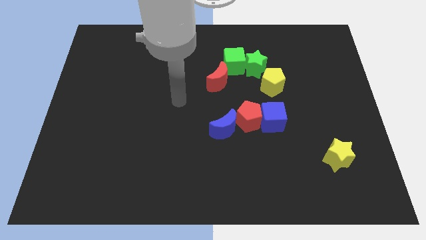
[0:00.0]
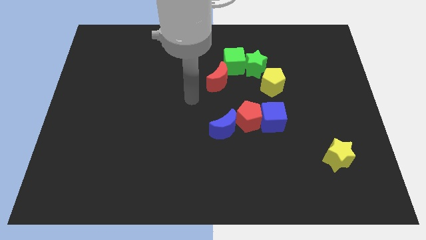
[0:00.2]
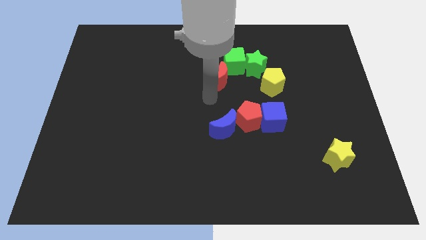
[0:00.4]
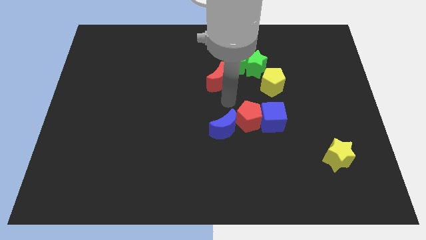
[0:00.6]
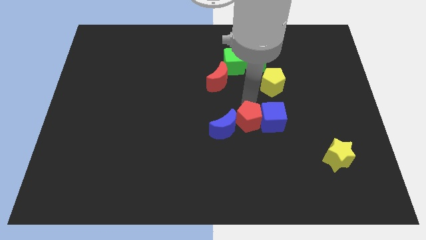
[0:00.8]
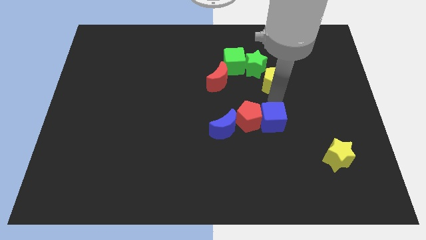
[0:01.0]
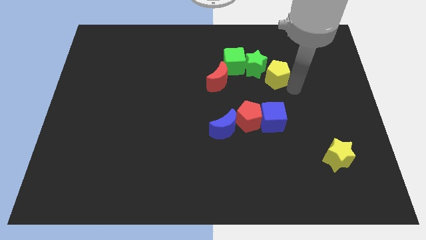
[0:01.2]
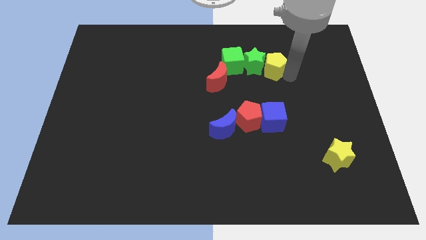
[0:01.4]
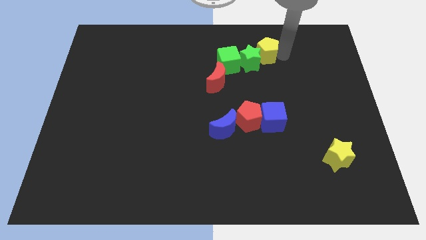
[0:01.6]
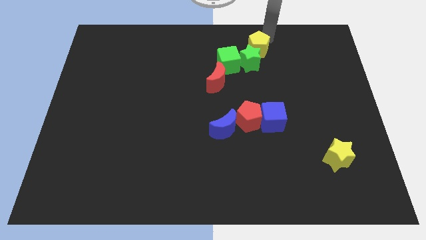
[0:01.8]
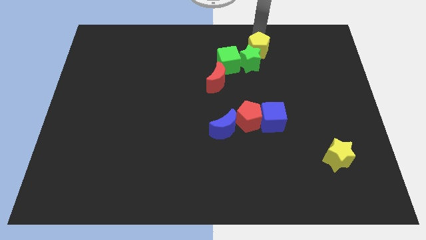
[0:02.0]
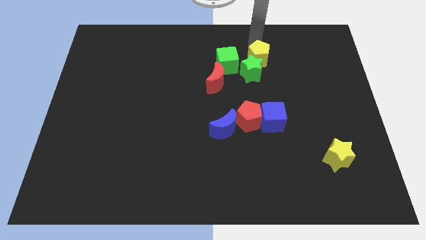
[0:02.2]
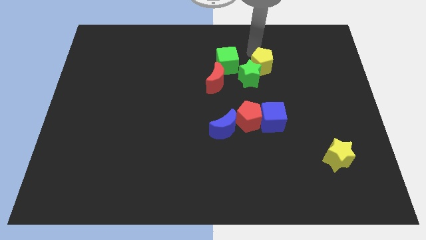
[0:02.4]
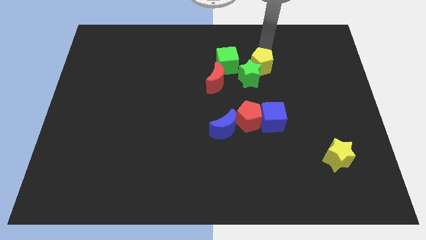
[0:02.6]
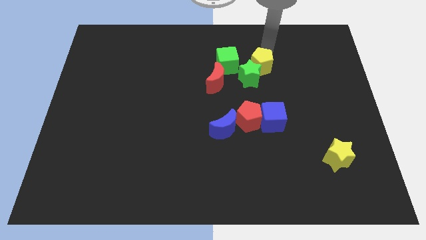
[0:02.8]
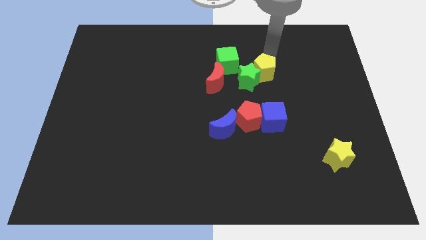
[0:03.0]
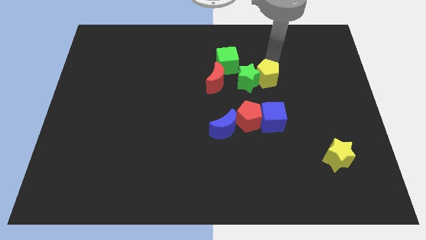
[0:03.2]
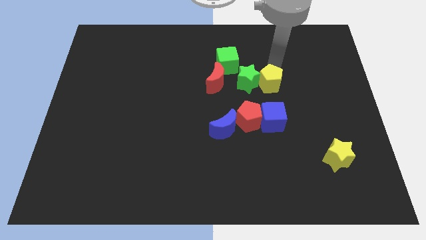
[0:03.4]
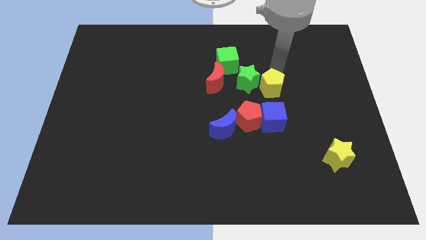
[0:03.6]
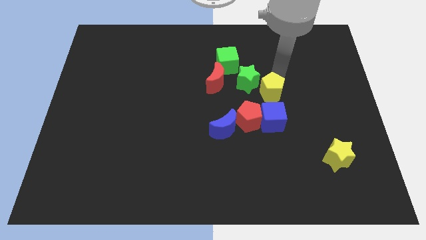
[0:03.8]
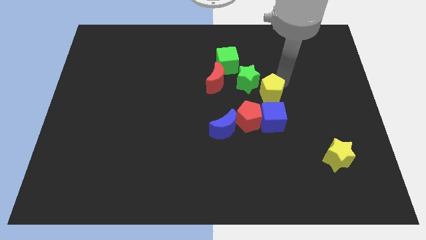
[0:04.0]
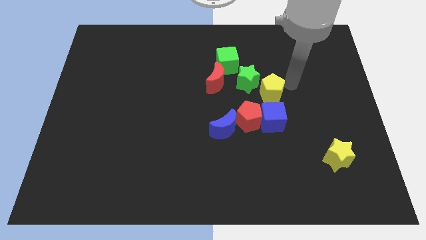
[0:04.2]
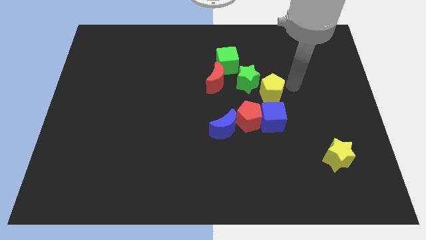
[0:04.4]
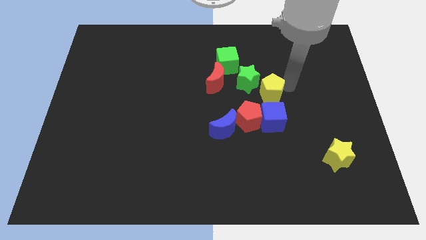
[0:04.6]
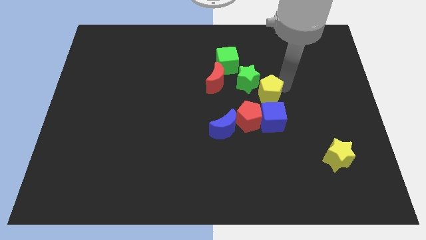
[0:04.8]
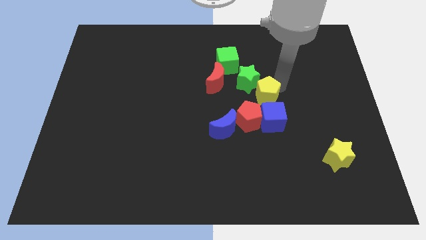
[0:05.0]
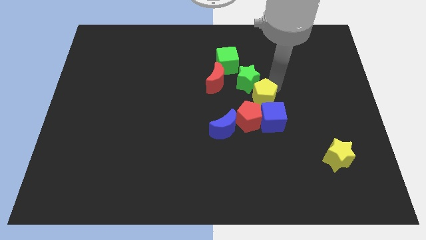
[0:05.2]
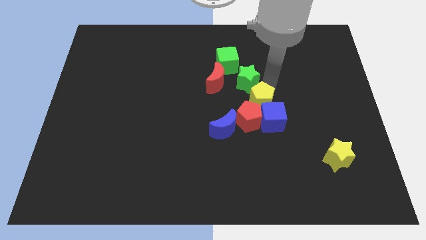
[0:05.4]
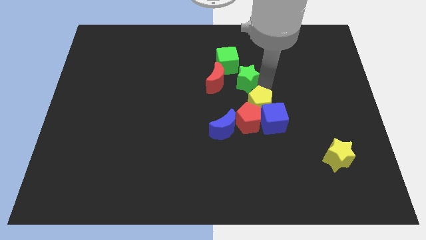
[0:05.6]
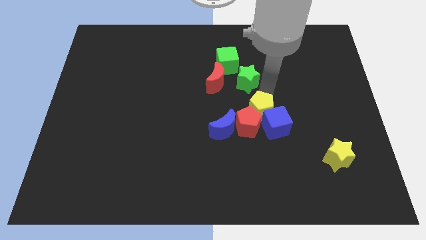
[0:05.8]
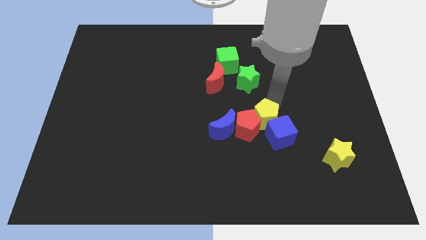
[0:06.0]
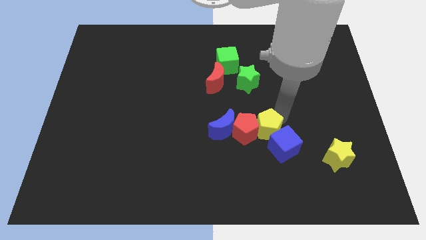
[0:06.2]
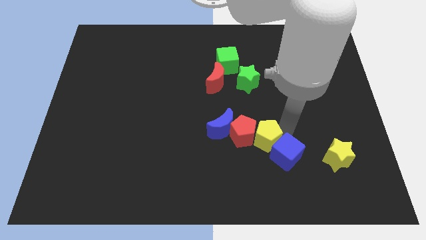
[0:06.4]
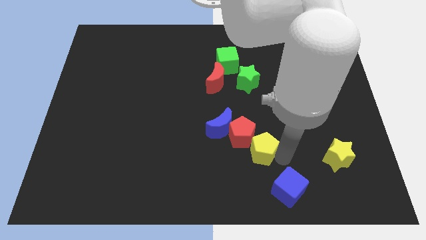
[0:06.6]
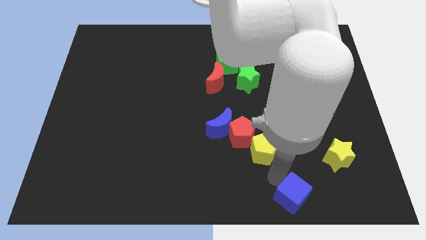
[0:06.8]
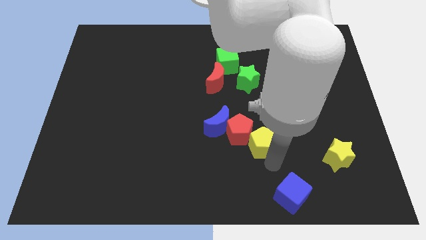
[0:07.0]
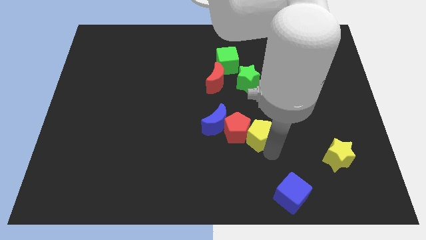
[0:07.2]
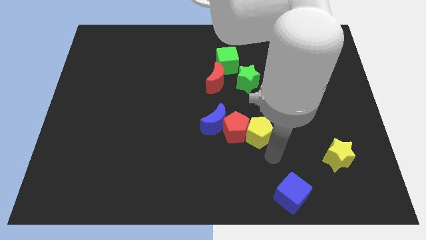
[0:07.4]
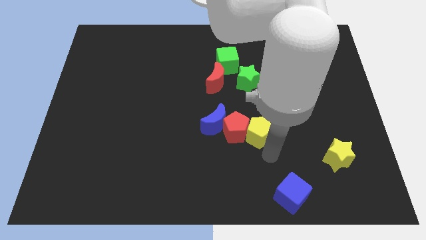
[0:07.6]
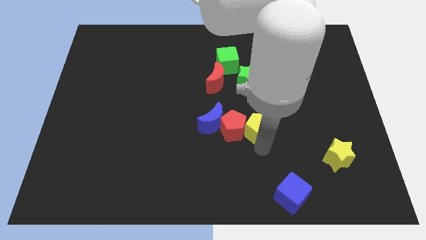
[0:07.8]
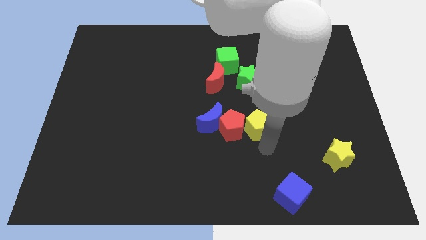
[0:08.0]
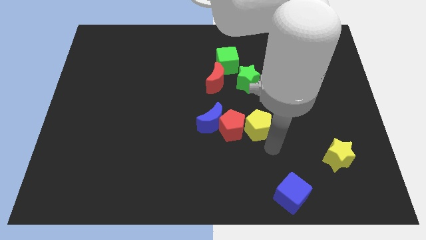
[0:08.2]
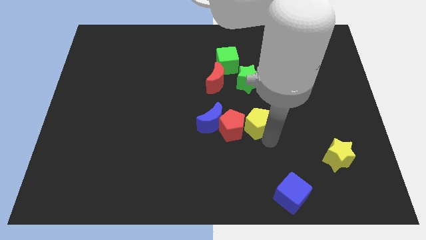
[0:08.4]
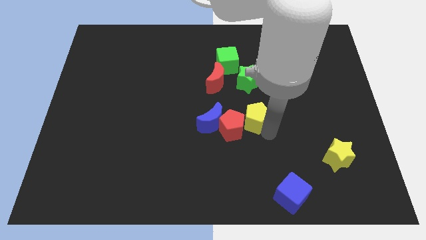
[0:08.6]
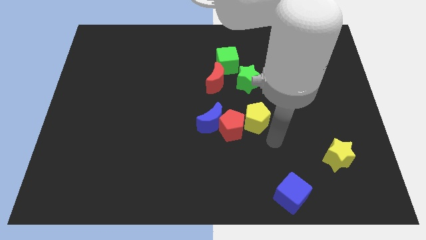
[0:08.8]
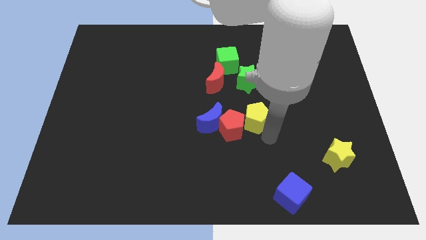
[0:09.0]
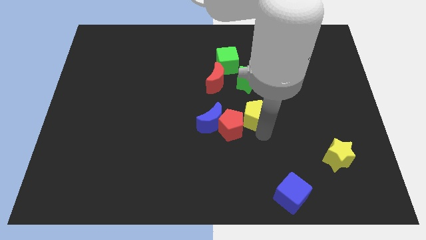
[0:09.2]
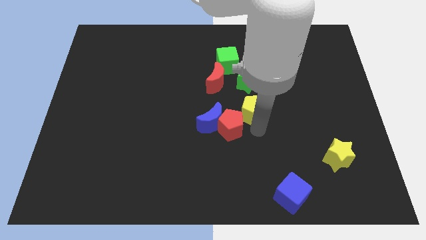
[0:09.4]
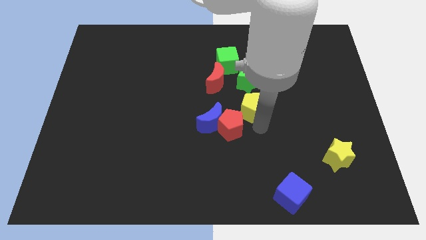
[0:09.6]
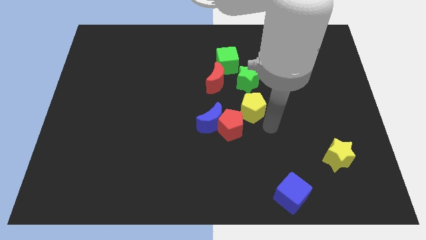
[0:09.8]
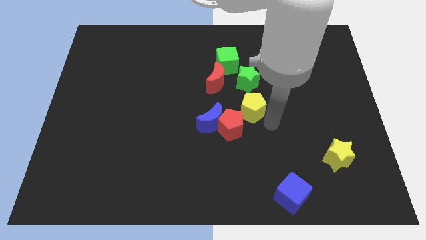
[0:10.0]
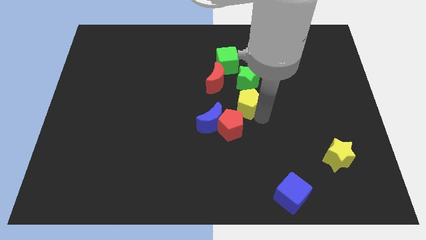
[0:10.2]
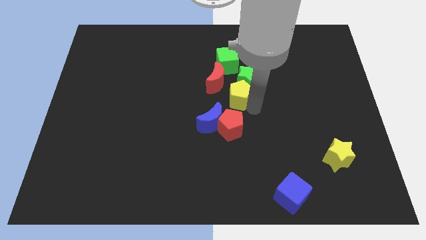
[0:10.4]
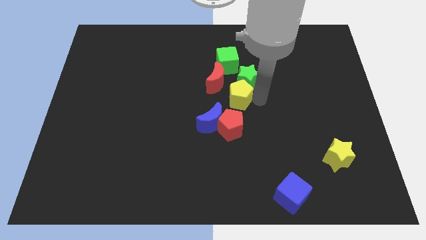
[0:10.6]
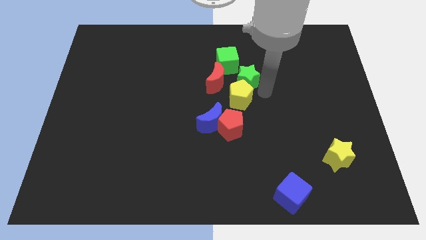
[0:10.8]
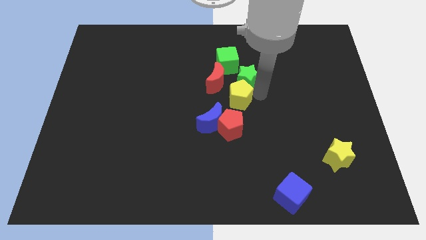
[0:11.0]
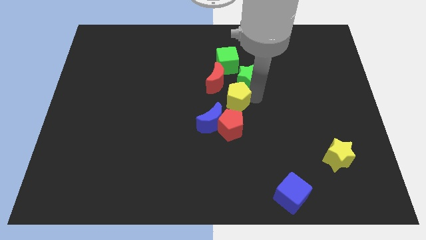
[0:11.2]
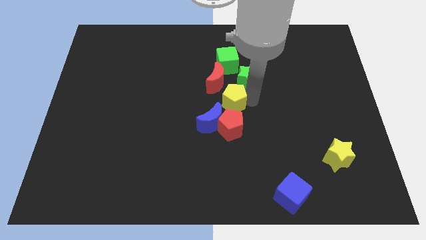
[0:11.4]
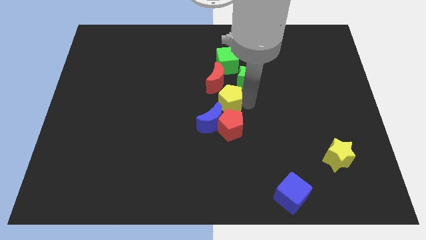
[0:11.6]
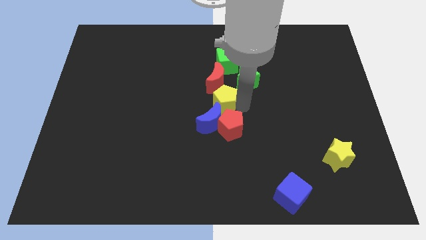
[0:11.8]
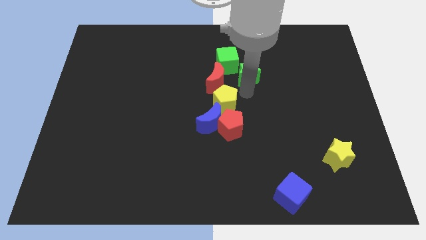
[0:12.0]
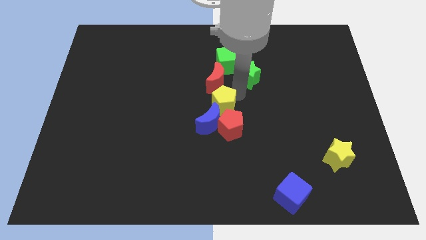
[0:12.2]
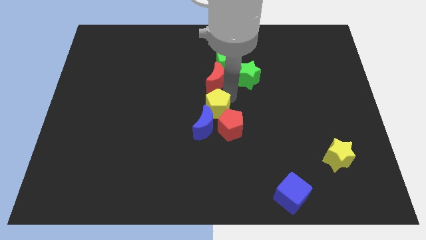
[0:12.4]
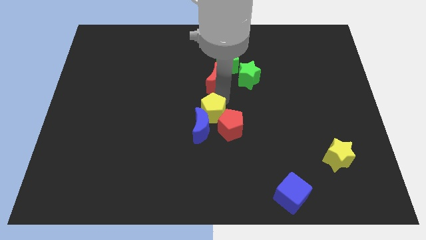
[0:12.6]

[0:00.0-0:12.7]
put the yellow pentagon left of the red pentagon
